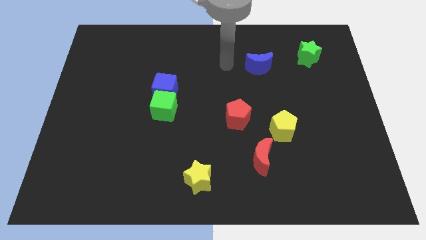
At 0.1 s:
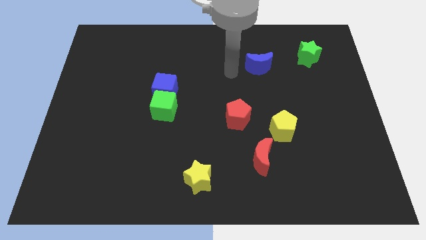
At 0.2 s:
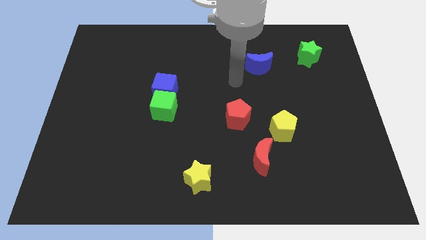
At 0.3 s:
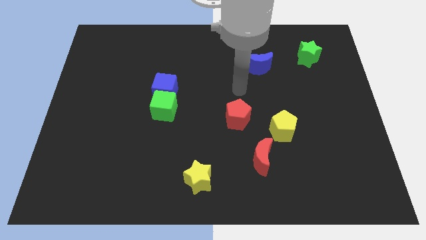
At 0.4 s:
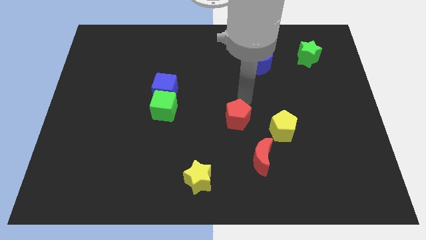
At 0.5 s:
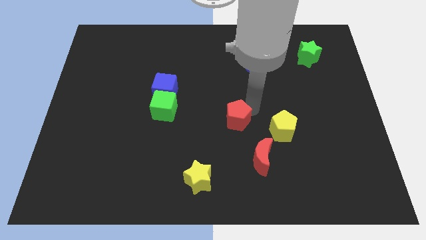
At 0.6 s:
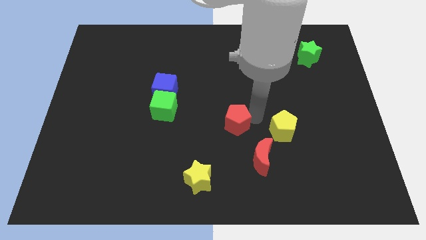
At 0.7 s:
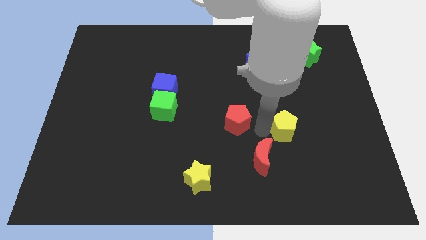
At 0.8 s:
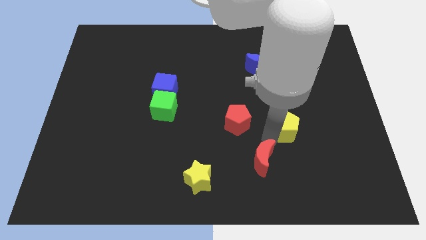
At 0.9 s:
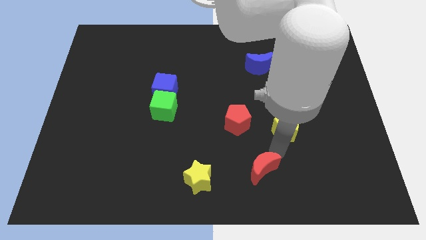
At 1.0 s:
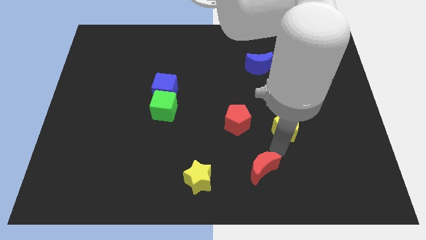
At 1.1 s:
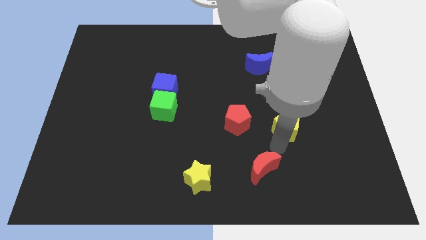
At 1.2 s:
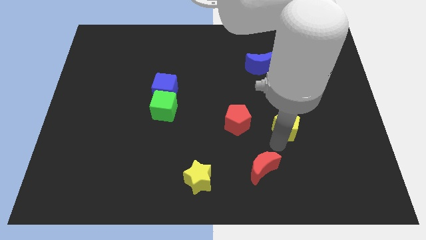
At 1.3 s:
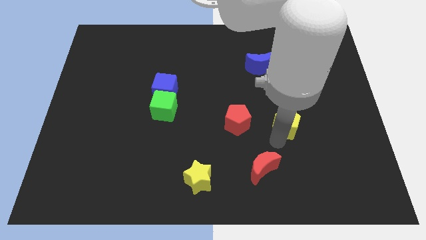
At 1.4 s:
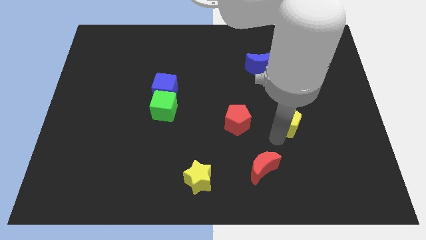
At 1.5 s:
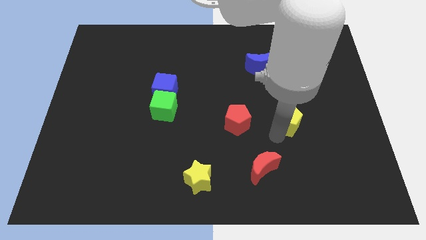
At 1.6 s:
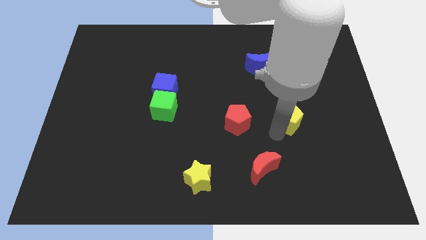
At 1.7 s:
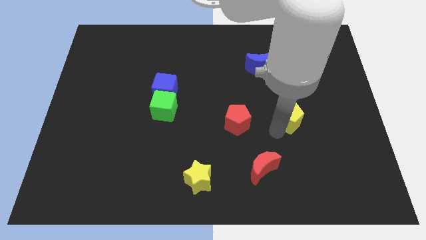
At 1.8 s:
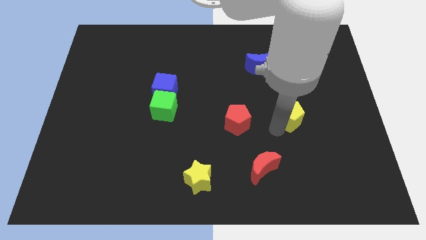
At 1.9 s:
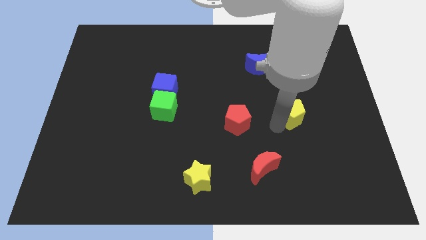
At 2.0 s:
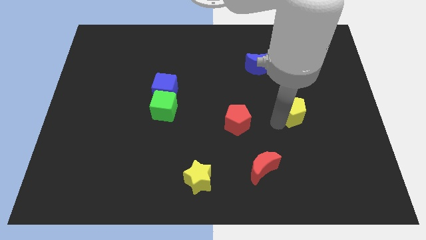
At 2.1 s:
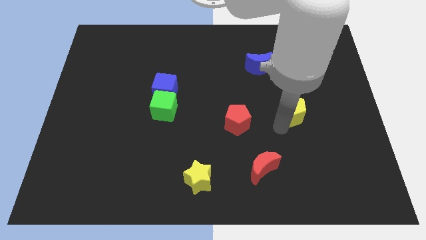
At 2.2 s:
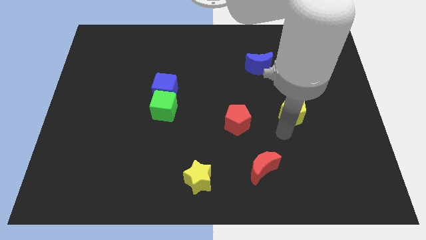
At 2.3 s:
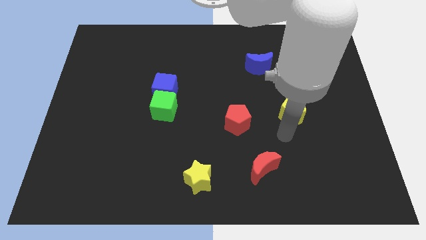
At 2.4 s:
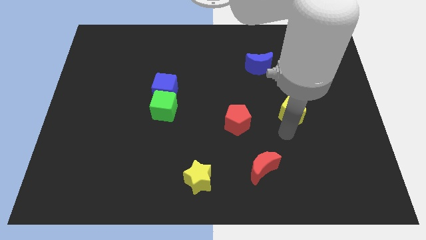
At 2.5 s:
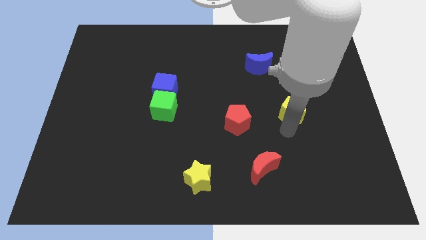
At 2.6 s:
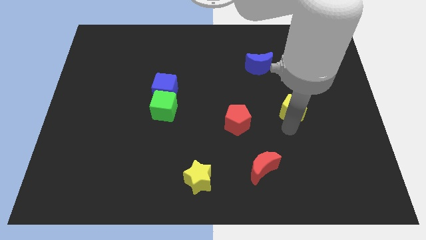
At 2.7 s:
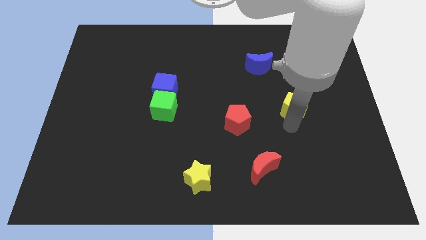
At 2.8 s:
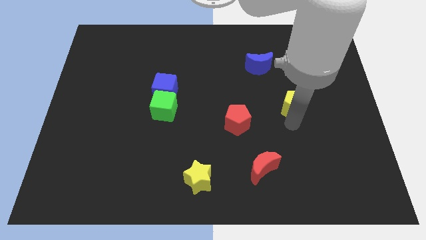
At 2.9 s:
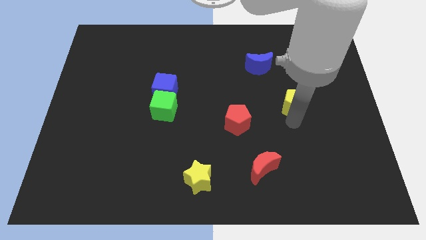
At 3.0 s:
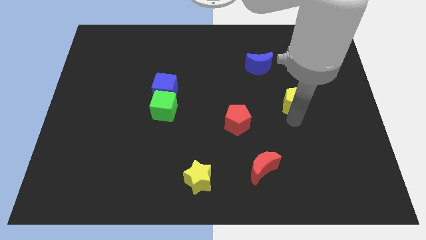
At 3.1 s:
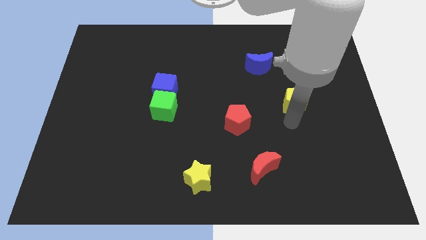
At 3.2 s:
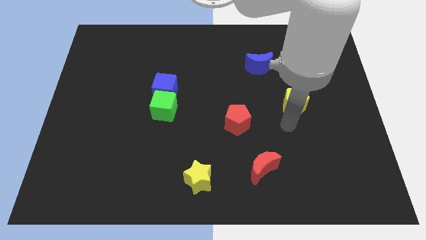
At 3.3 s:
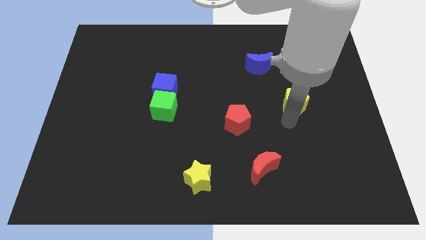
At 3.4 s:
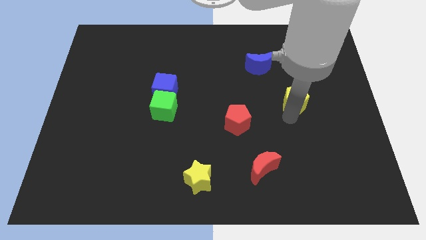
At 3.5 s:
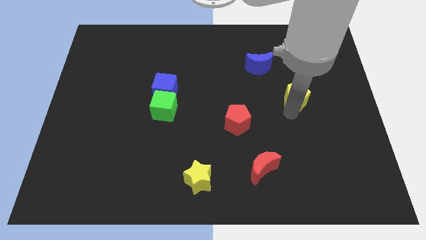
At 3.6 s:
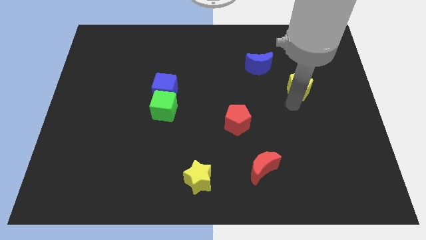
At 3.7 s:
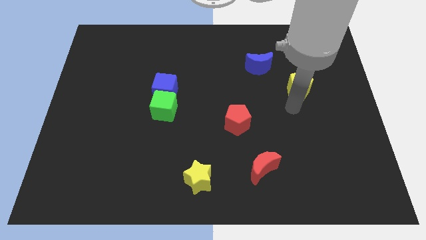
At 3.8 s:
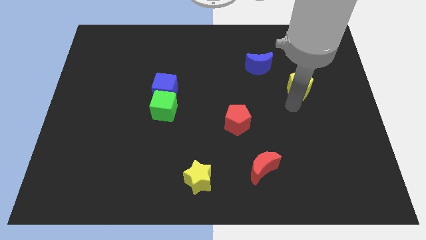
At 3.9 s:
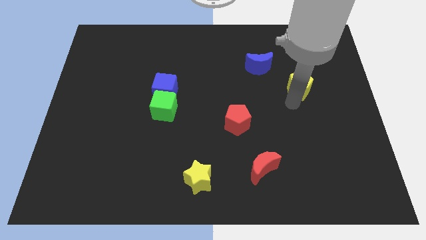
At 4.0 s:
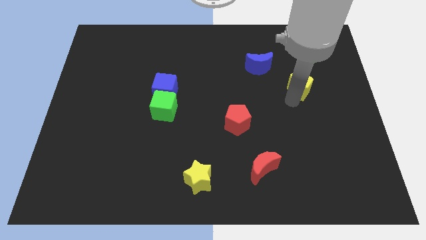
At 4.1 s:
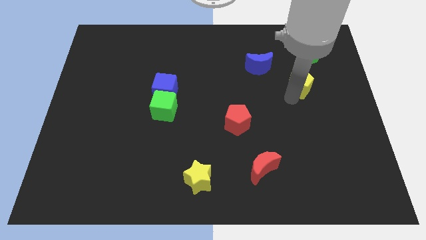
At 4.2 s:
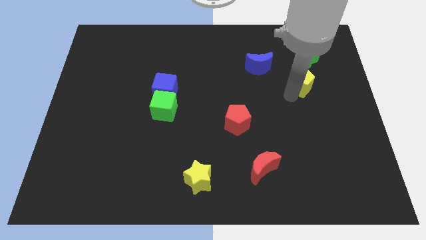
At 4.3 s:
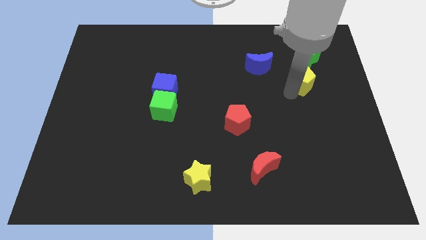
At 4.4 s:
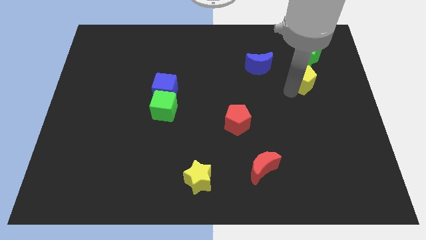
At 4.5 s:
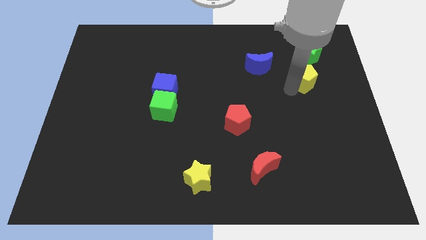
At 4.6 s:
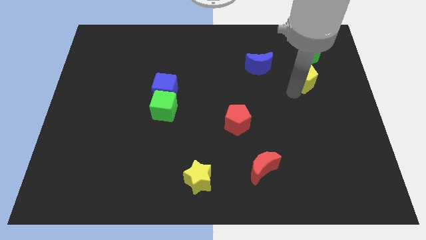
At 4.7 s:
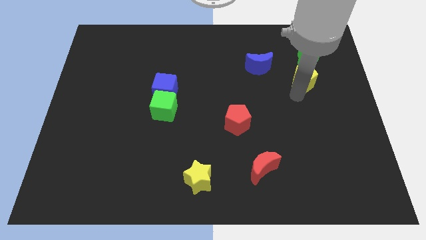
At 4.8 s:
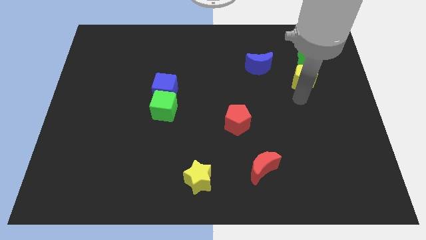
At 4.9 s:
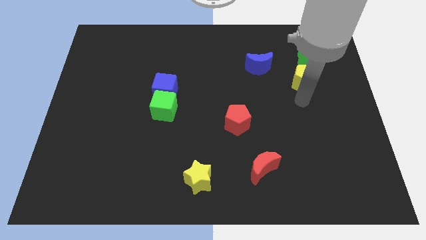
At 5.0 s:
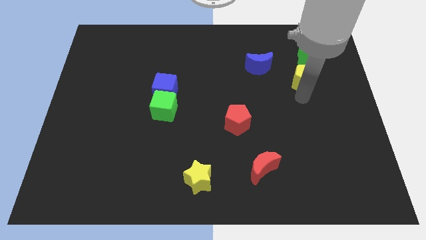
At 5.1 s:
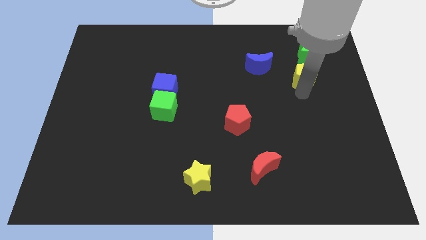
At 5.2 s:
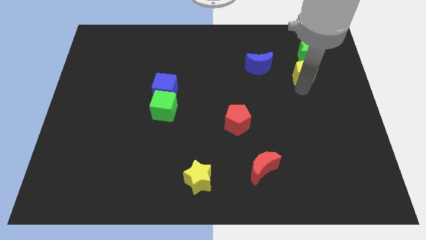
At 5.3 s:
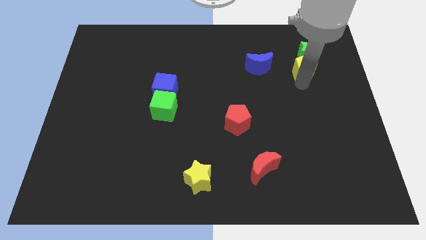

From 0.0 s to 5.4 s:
push the yellow pentagon to the green star

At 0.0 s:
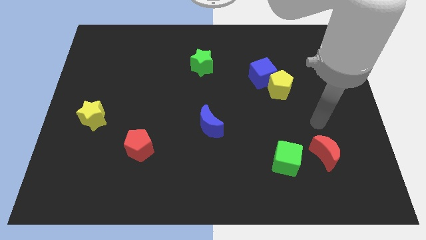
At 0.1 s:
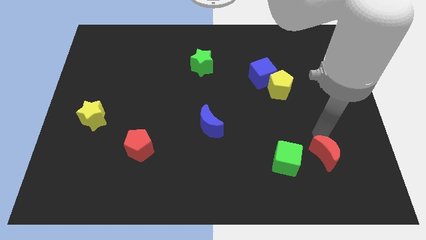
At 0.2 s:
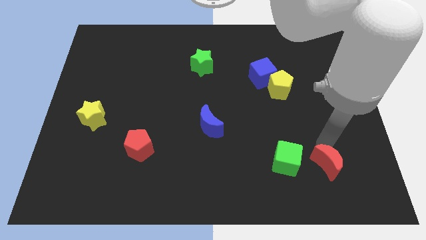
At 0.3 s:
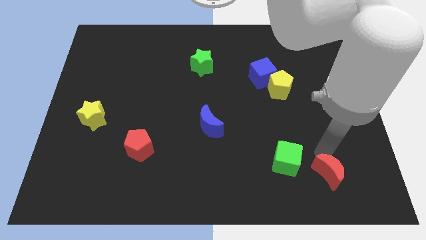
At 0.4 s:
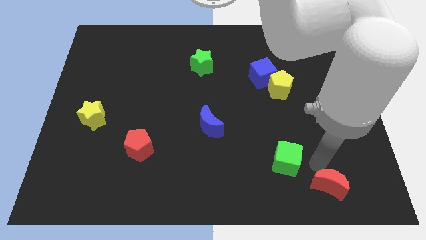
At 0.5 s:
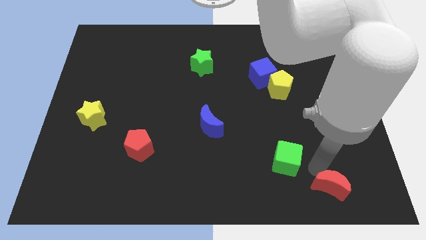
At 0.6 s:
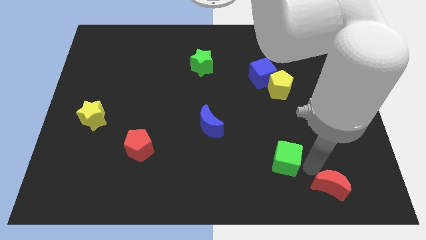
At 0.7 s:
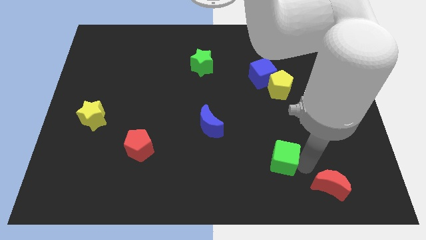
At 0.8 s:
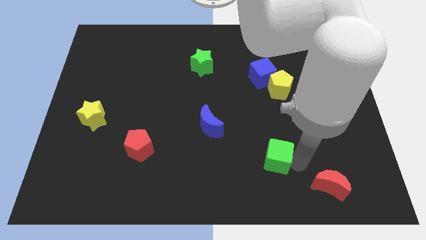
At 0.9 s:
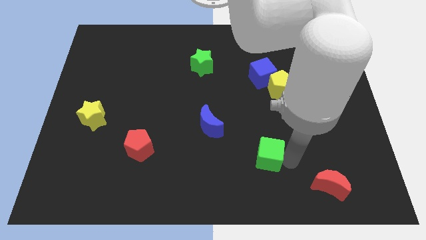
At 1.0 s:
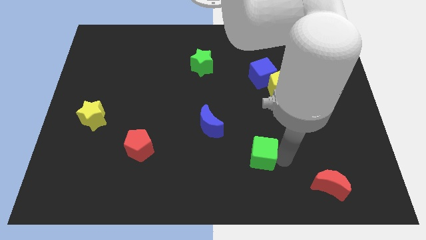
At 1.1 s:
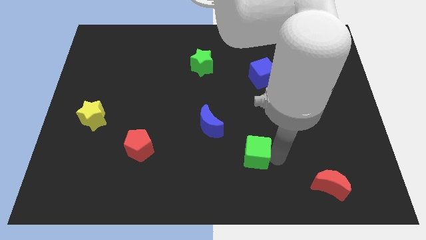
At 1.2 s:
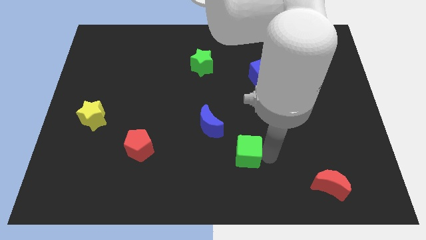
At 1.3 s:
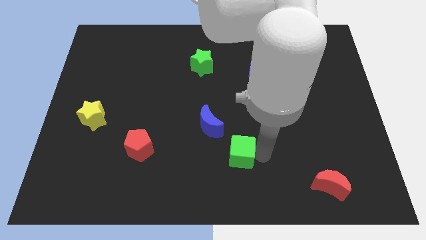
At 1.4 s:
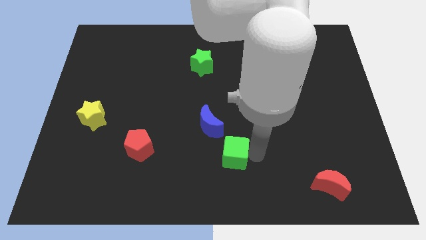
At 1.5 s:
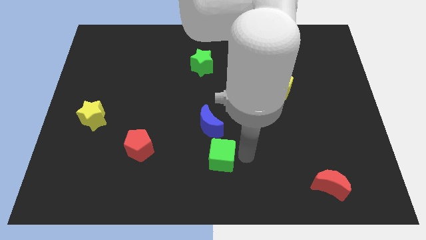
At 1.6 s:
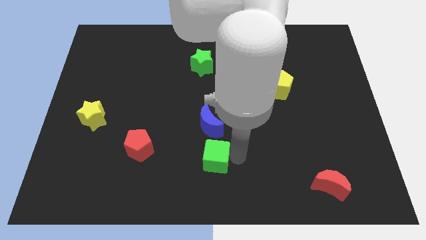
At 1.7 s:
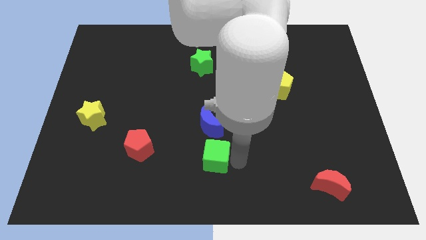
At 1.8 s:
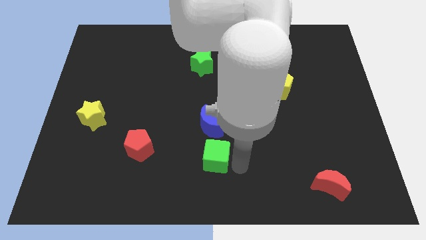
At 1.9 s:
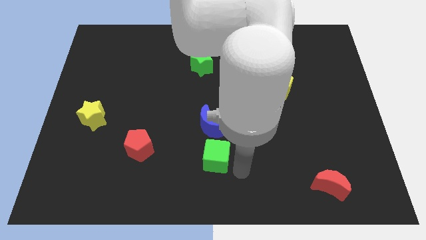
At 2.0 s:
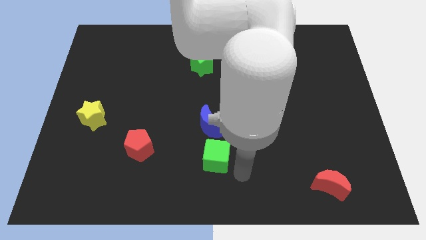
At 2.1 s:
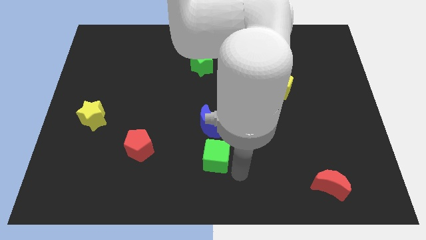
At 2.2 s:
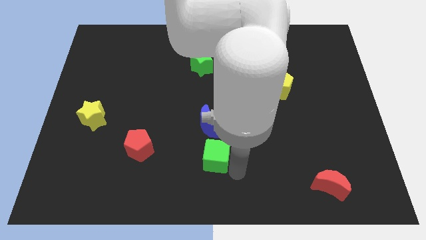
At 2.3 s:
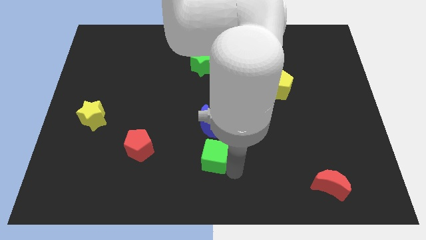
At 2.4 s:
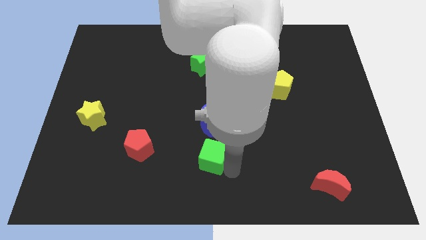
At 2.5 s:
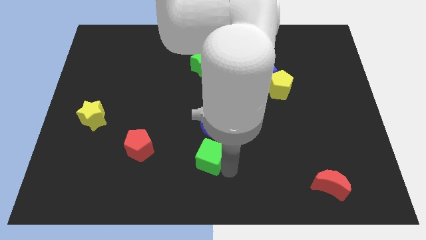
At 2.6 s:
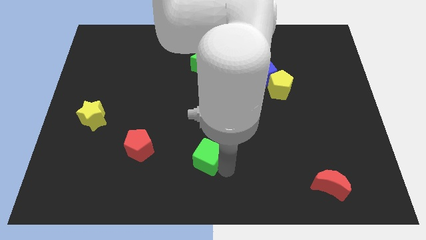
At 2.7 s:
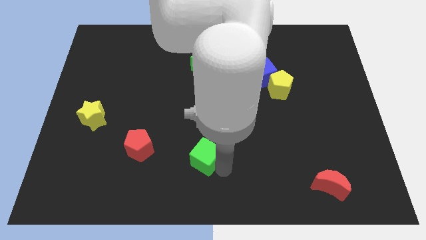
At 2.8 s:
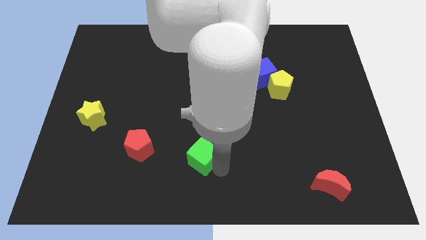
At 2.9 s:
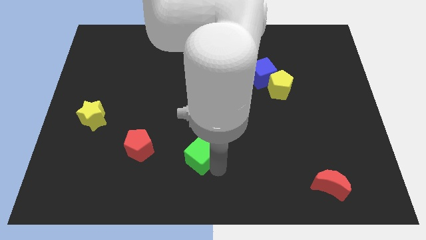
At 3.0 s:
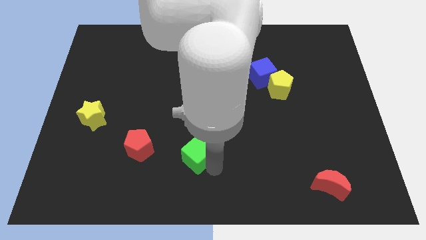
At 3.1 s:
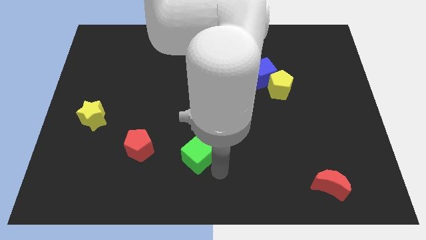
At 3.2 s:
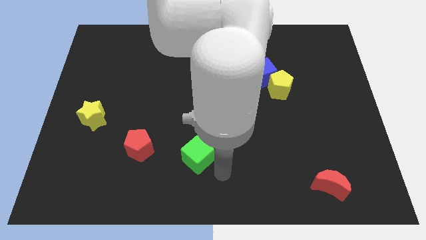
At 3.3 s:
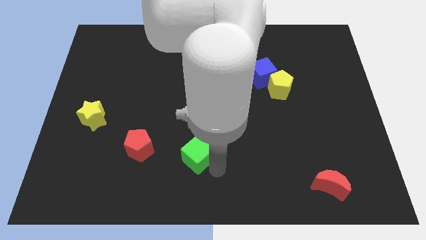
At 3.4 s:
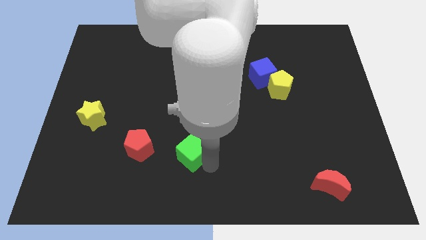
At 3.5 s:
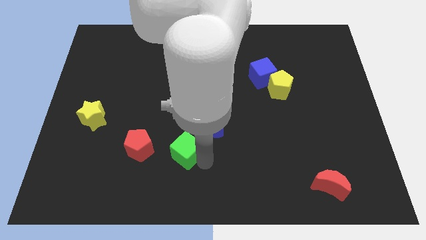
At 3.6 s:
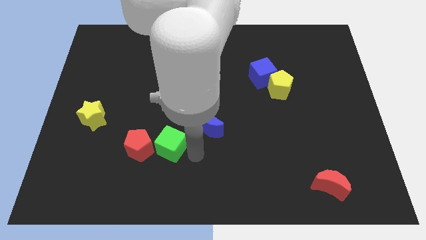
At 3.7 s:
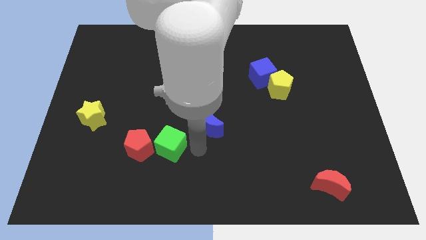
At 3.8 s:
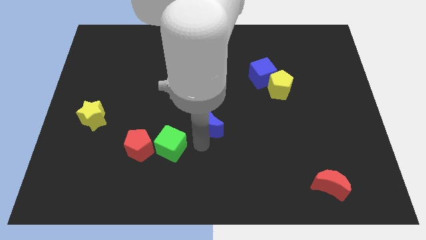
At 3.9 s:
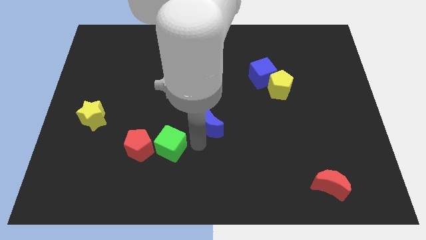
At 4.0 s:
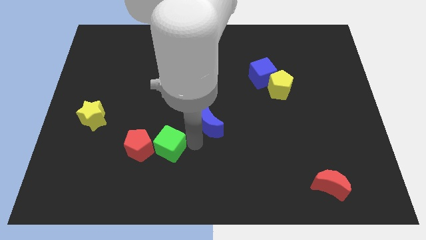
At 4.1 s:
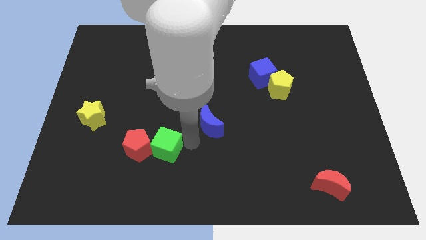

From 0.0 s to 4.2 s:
slide the green cube close to the red pentagon
